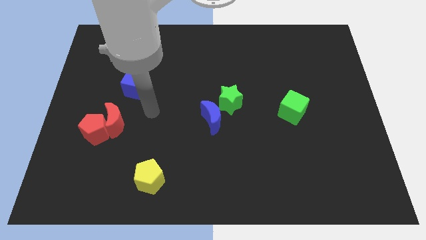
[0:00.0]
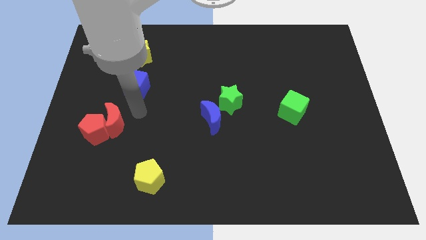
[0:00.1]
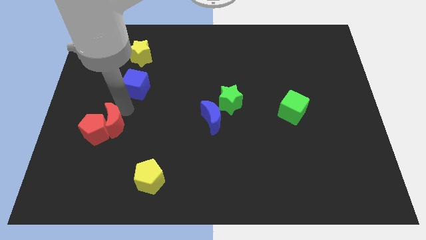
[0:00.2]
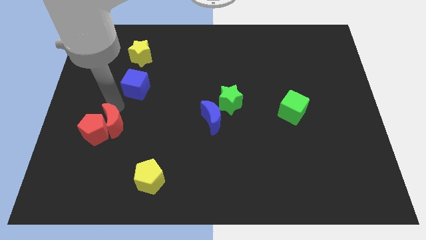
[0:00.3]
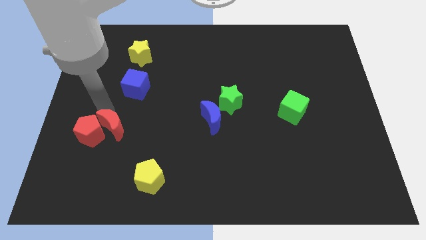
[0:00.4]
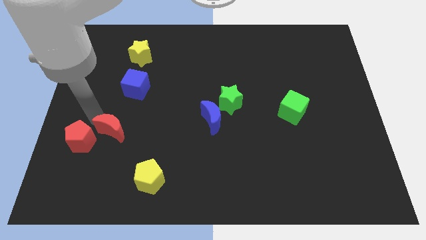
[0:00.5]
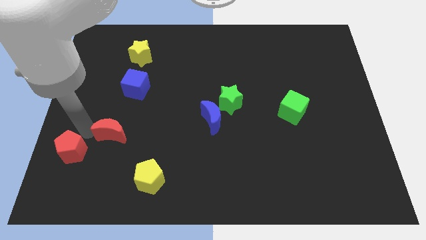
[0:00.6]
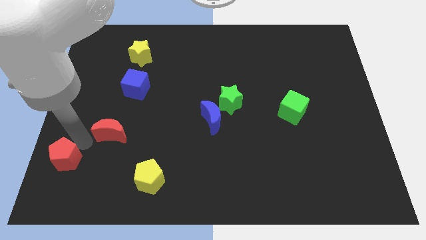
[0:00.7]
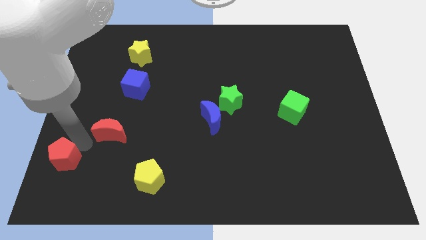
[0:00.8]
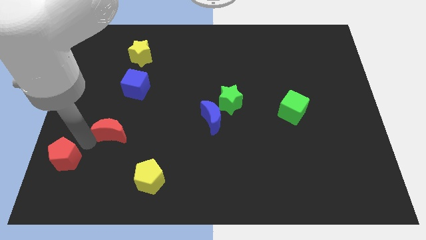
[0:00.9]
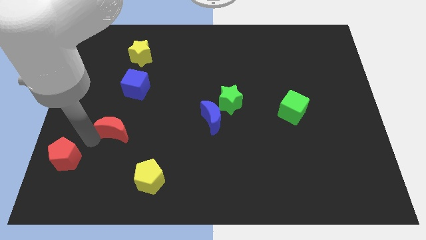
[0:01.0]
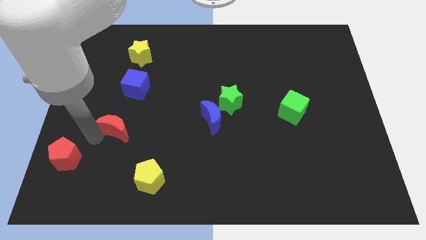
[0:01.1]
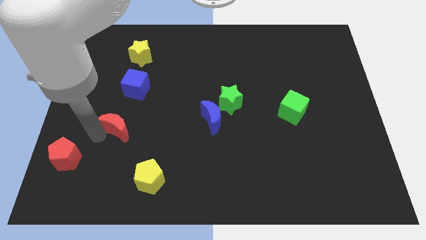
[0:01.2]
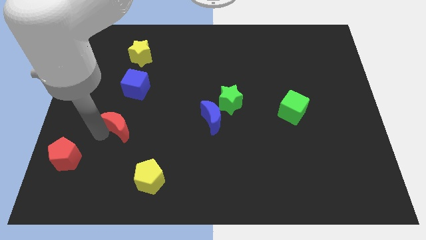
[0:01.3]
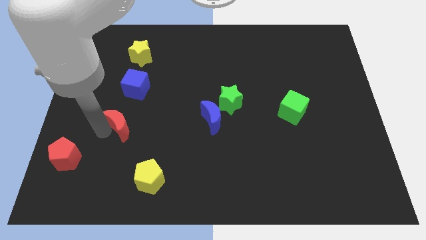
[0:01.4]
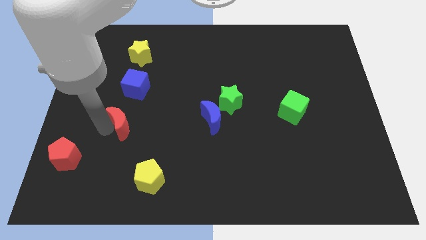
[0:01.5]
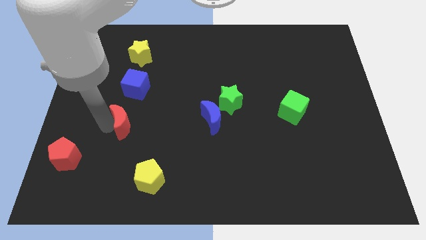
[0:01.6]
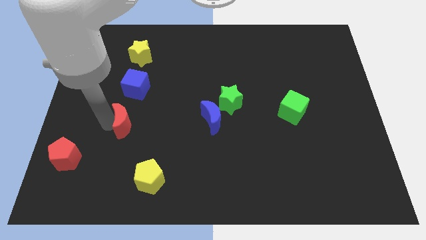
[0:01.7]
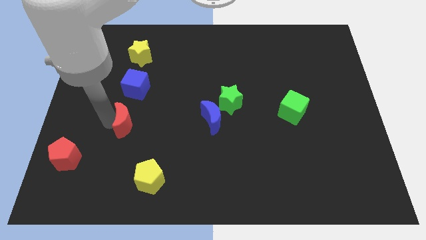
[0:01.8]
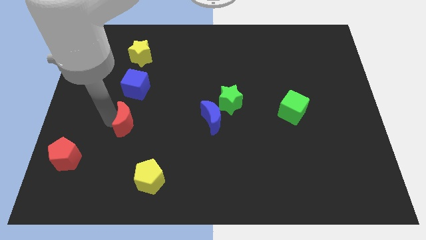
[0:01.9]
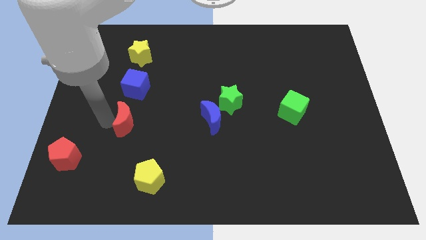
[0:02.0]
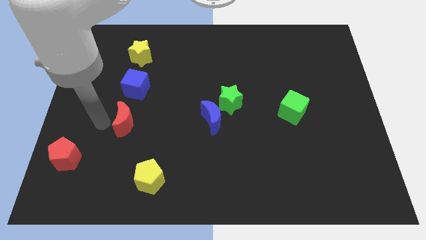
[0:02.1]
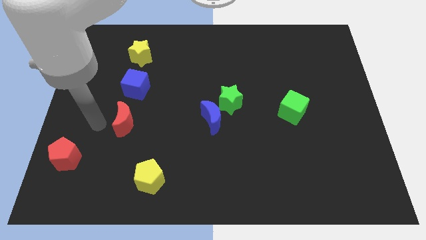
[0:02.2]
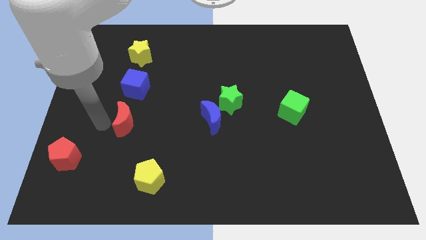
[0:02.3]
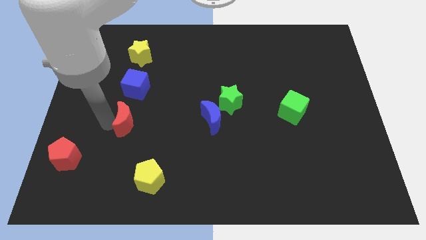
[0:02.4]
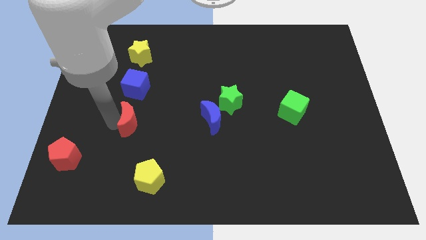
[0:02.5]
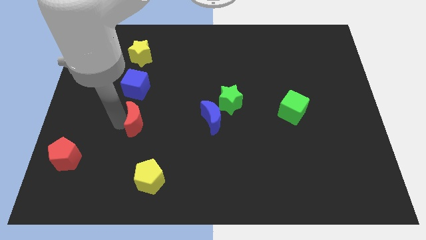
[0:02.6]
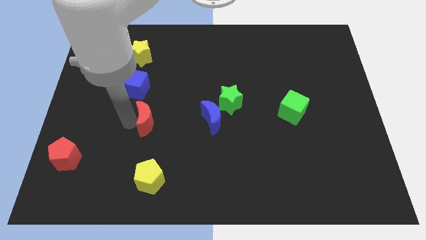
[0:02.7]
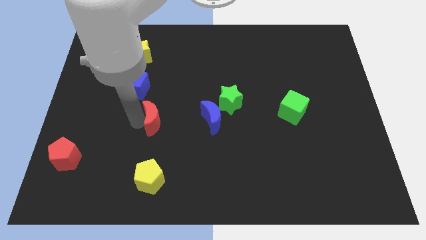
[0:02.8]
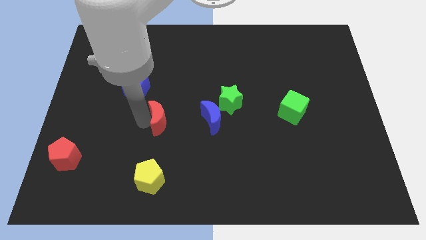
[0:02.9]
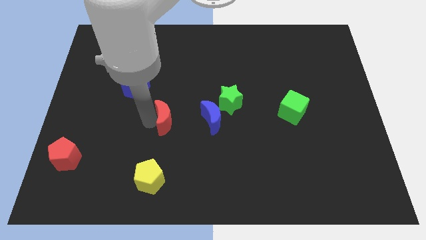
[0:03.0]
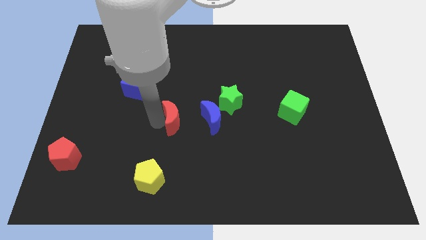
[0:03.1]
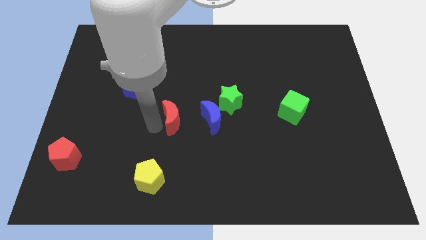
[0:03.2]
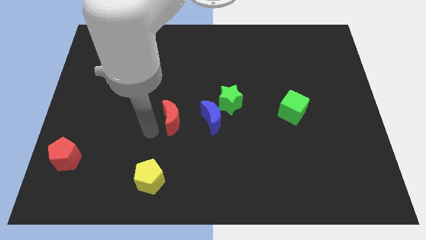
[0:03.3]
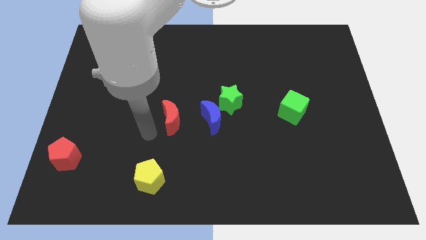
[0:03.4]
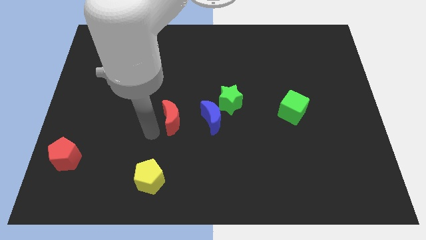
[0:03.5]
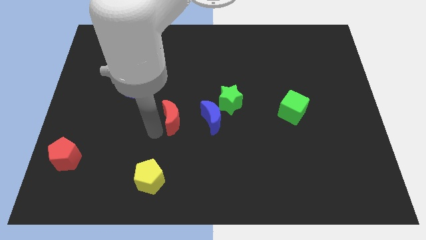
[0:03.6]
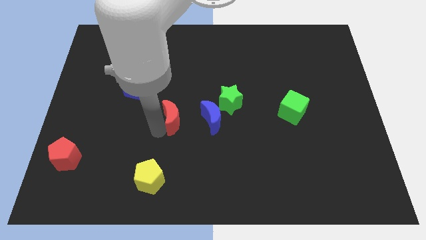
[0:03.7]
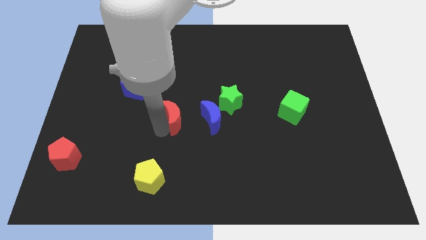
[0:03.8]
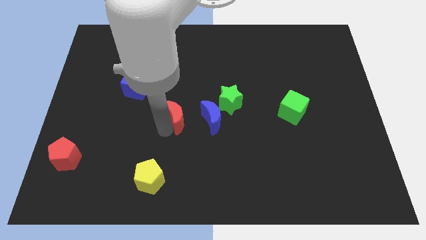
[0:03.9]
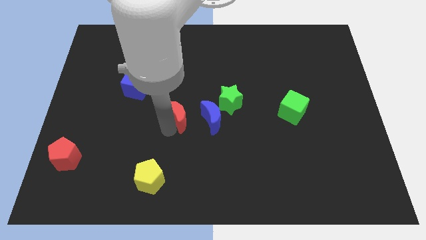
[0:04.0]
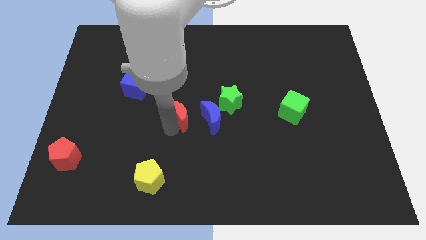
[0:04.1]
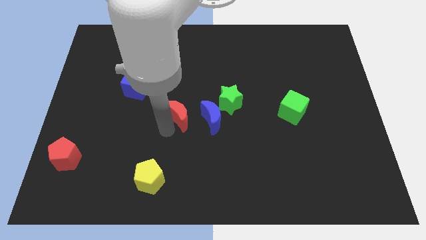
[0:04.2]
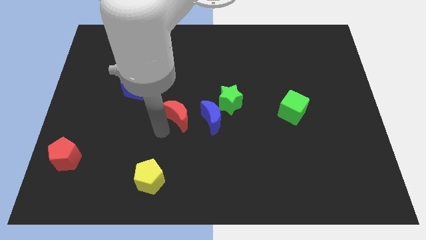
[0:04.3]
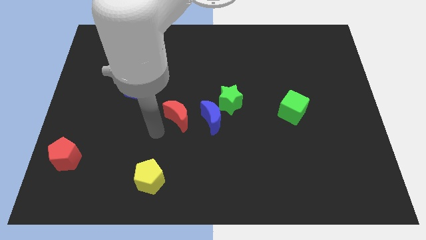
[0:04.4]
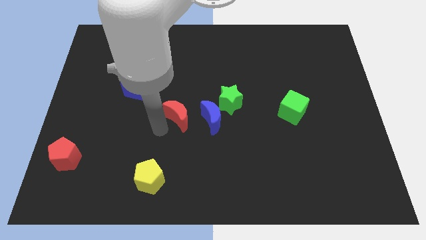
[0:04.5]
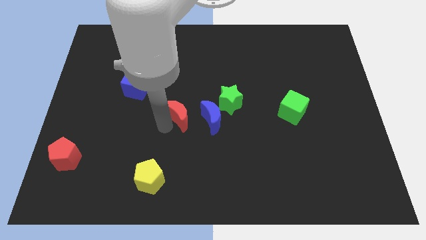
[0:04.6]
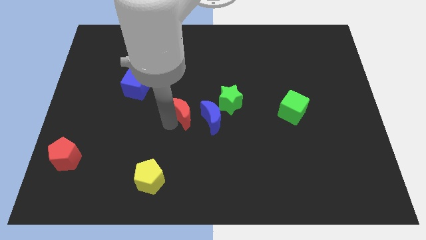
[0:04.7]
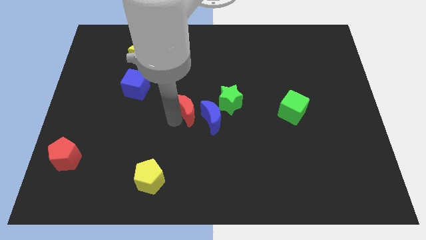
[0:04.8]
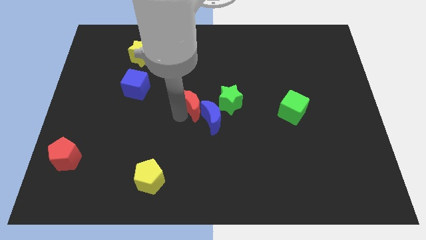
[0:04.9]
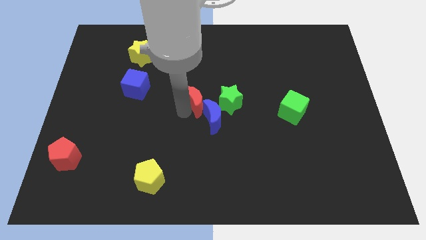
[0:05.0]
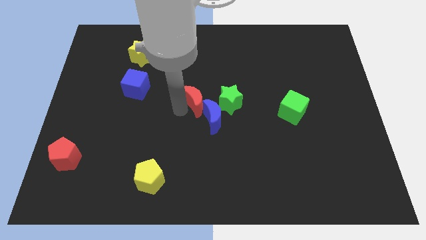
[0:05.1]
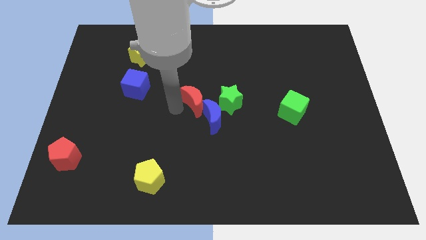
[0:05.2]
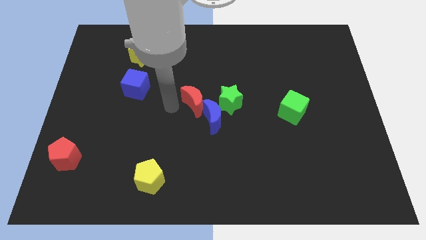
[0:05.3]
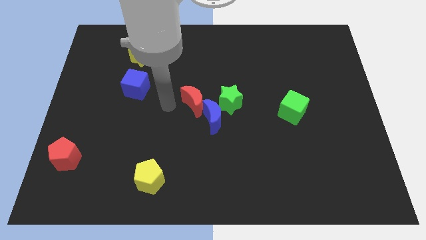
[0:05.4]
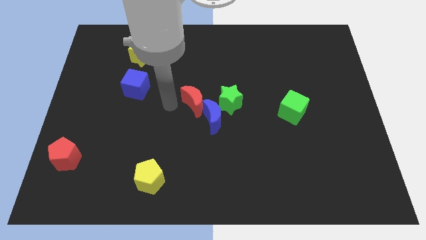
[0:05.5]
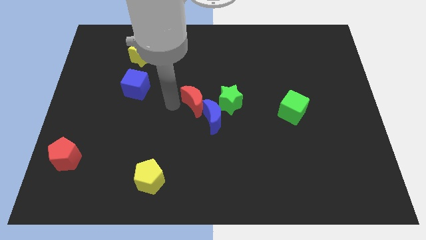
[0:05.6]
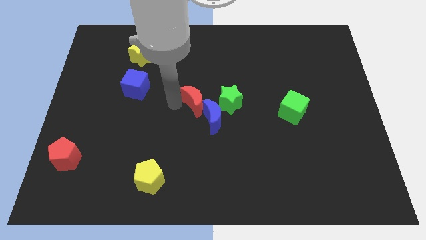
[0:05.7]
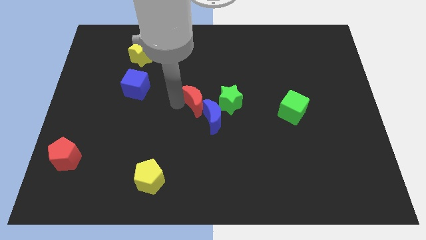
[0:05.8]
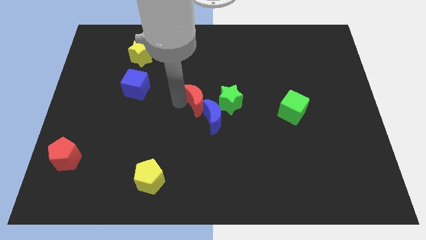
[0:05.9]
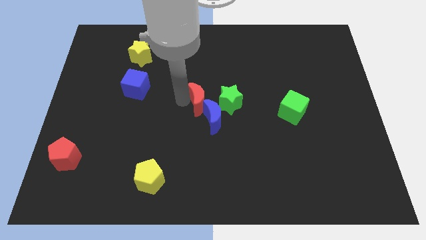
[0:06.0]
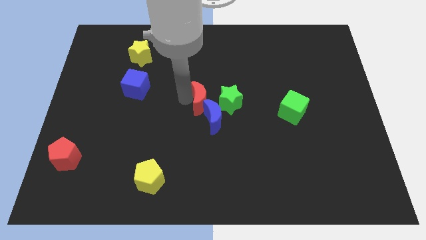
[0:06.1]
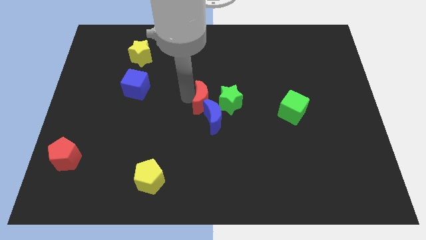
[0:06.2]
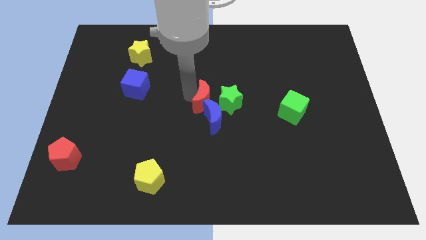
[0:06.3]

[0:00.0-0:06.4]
push the red moon next to the green star

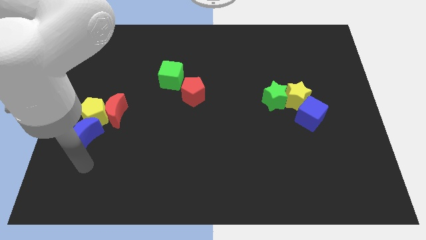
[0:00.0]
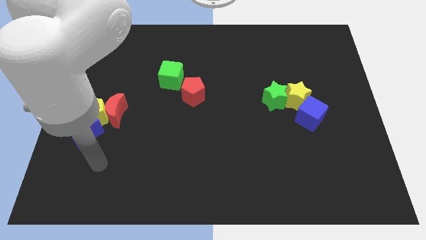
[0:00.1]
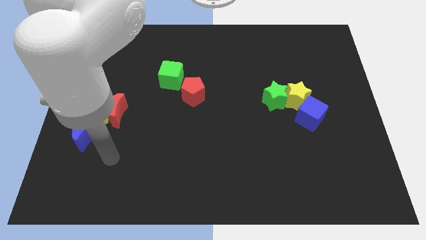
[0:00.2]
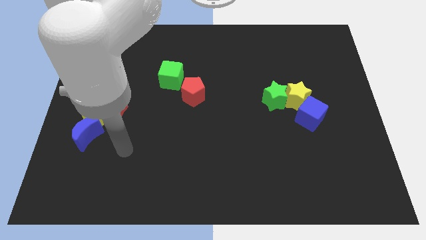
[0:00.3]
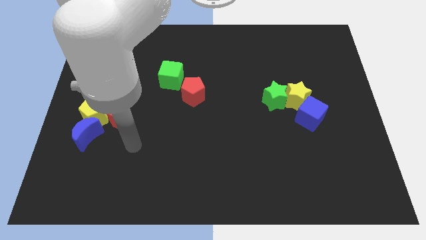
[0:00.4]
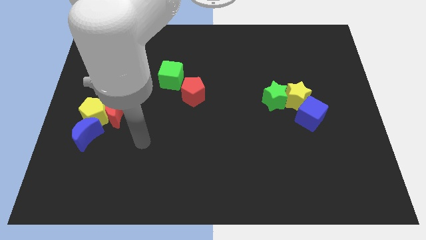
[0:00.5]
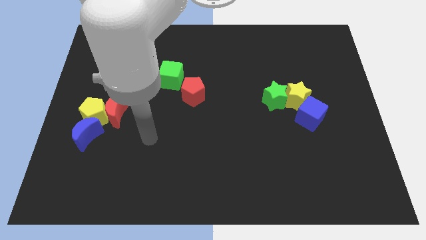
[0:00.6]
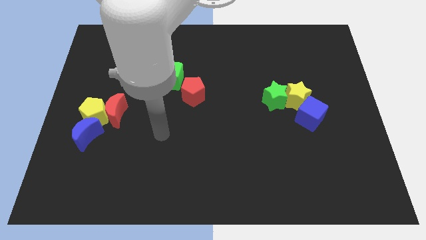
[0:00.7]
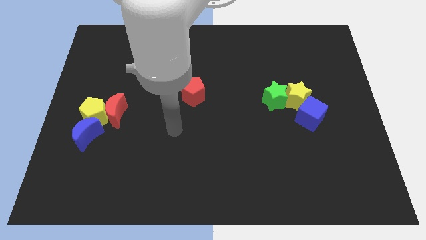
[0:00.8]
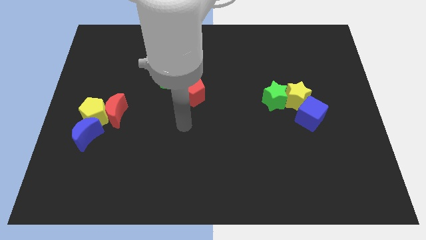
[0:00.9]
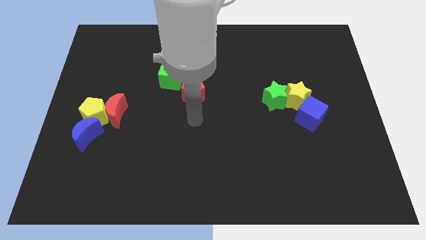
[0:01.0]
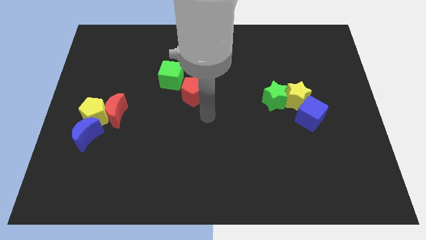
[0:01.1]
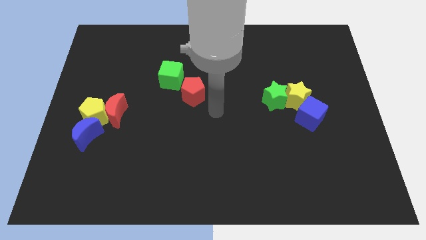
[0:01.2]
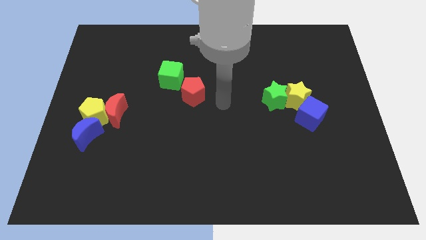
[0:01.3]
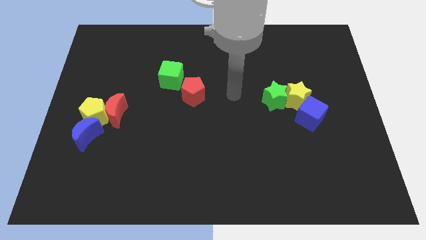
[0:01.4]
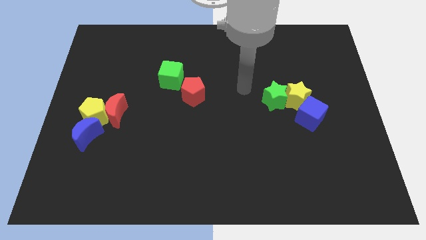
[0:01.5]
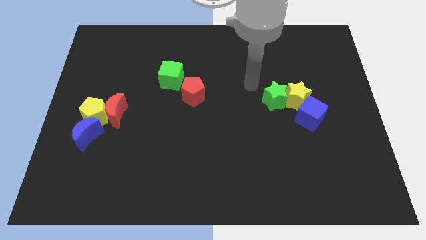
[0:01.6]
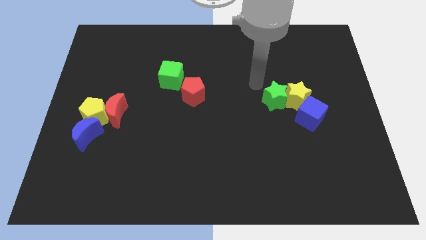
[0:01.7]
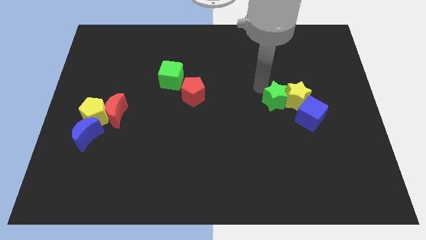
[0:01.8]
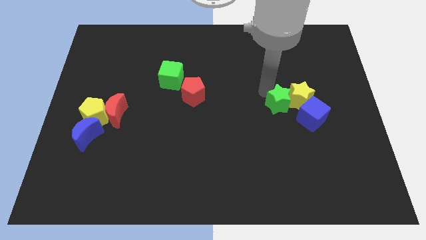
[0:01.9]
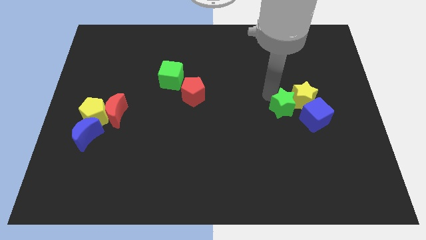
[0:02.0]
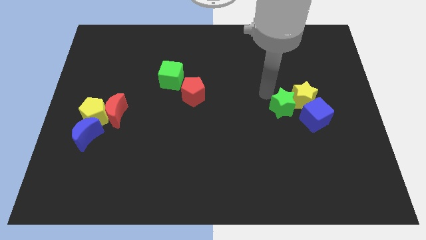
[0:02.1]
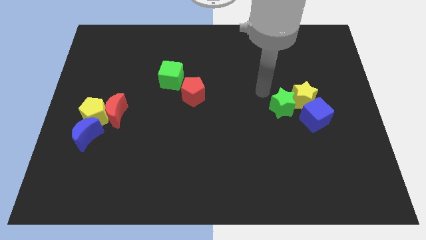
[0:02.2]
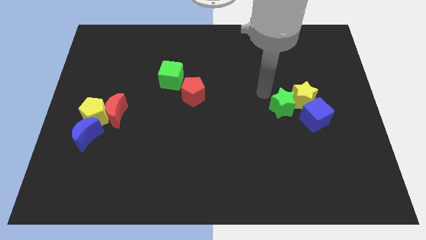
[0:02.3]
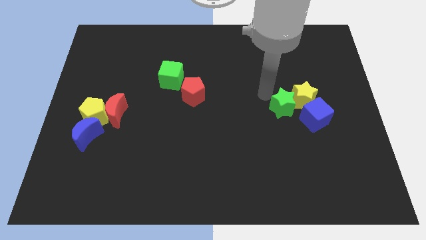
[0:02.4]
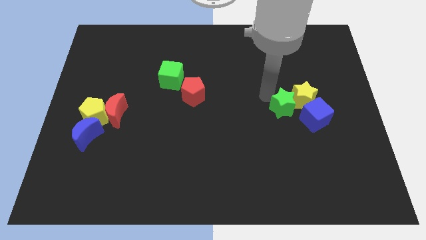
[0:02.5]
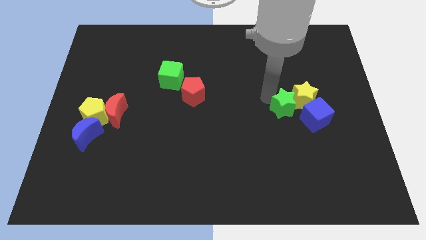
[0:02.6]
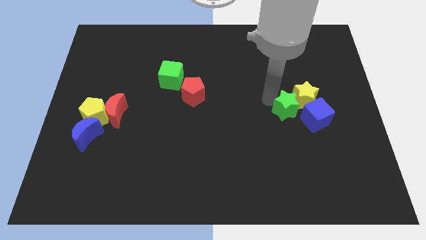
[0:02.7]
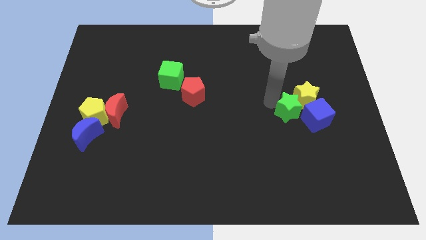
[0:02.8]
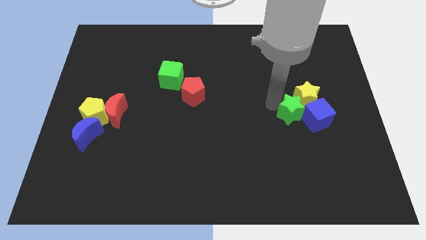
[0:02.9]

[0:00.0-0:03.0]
put the green star next to the blue cube
